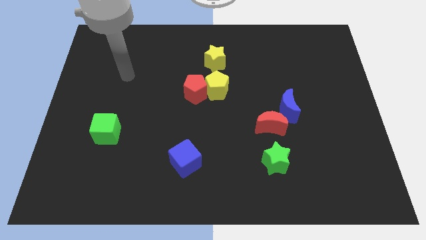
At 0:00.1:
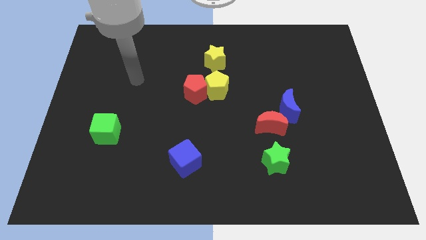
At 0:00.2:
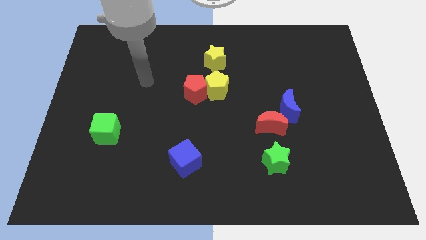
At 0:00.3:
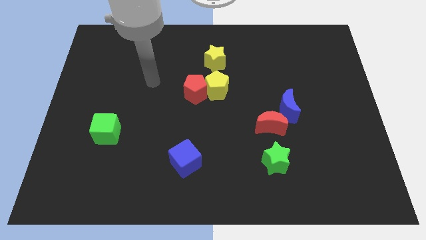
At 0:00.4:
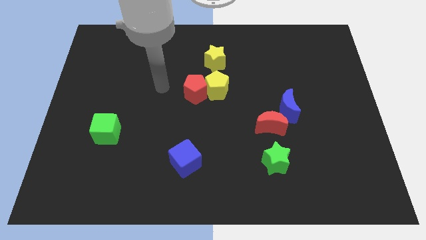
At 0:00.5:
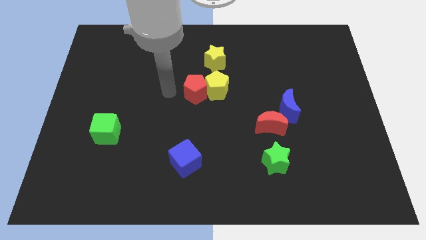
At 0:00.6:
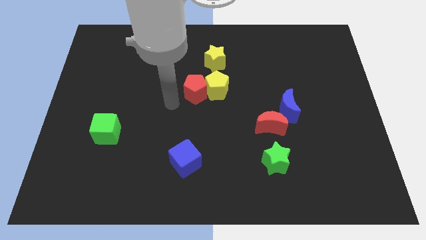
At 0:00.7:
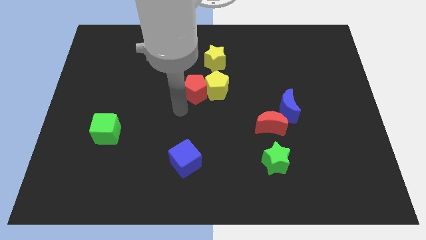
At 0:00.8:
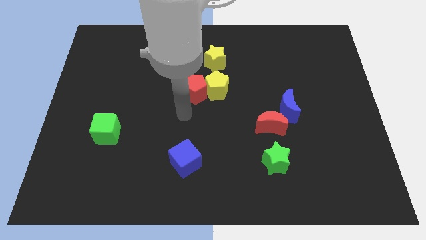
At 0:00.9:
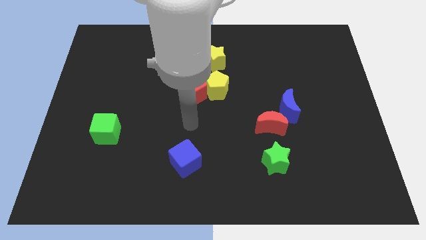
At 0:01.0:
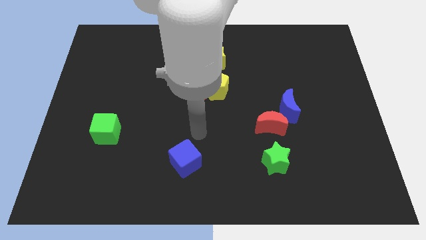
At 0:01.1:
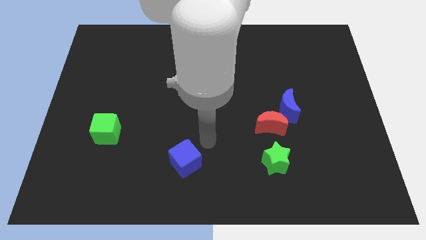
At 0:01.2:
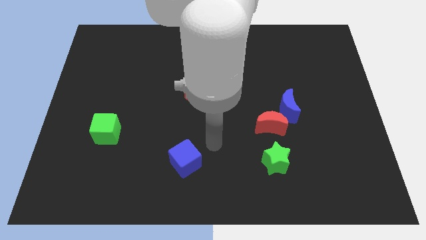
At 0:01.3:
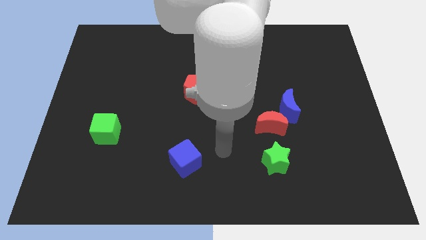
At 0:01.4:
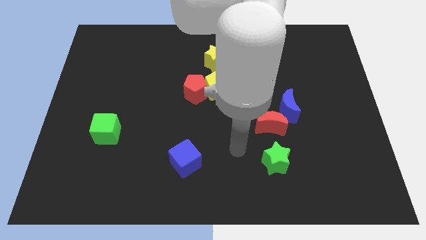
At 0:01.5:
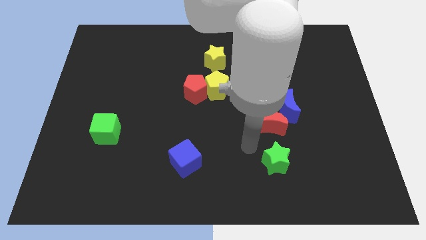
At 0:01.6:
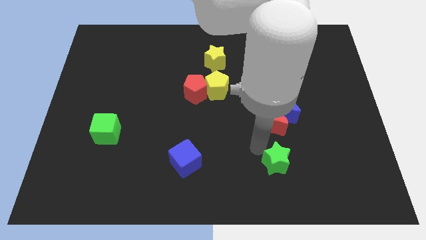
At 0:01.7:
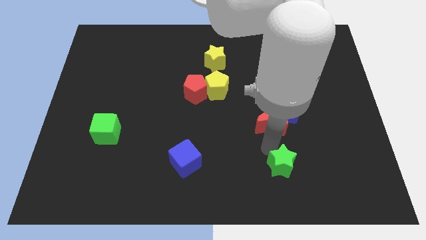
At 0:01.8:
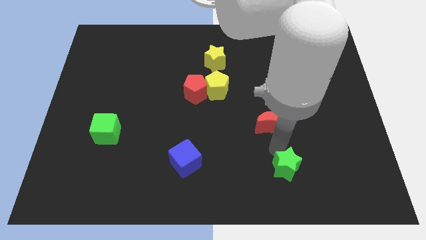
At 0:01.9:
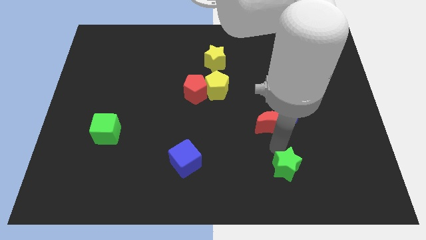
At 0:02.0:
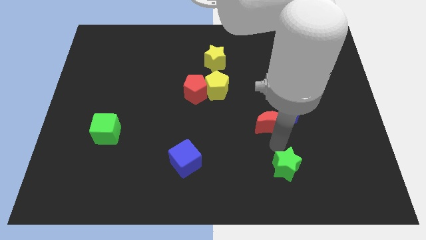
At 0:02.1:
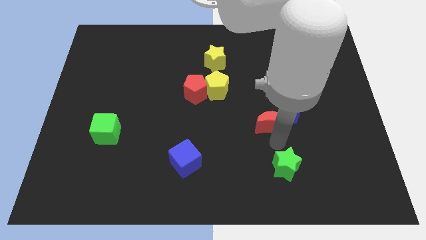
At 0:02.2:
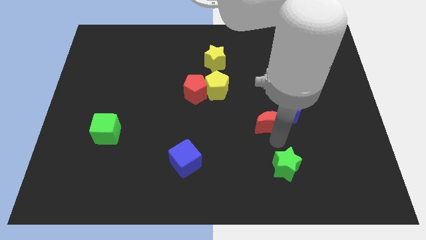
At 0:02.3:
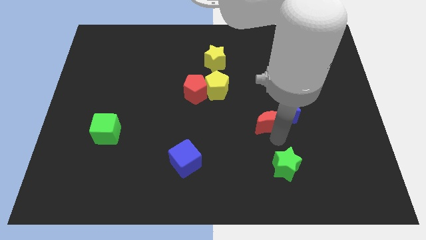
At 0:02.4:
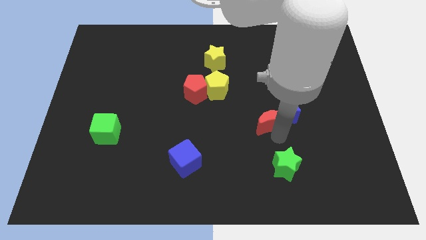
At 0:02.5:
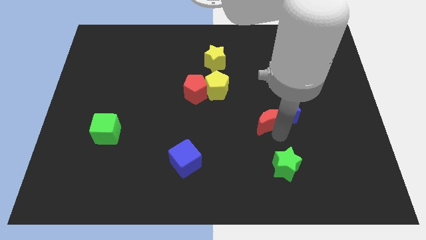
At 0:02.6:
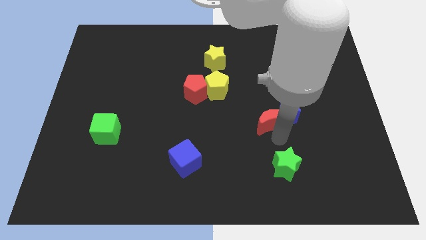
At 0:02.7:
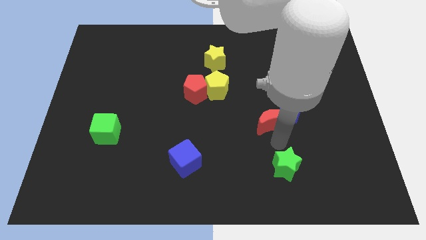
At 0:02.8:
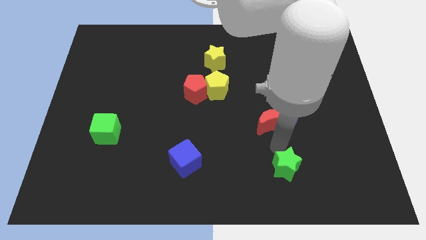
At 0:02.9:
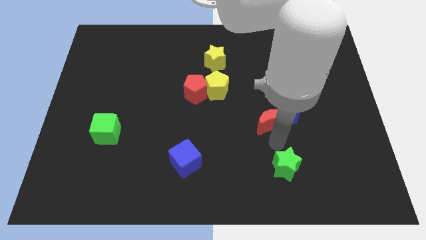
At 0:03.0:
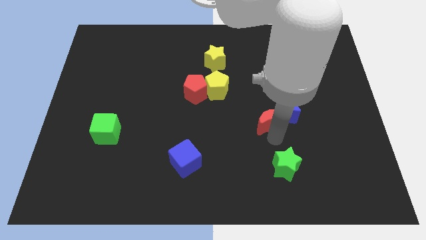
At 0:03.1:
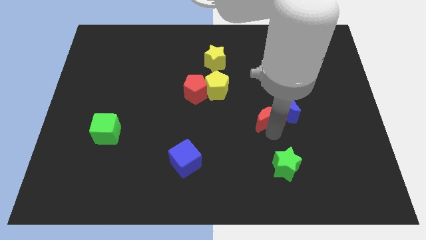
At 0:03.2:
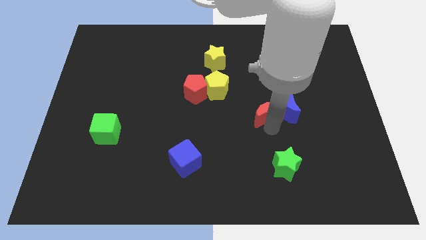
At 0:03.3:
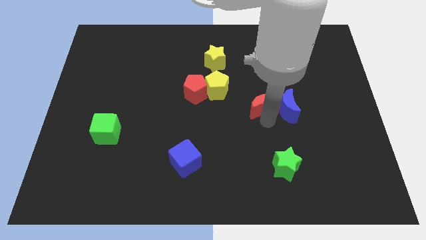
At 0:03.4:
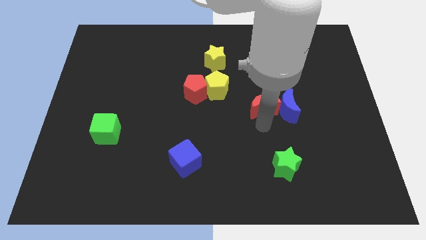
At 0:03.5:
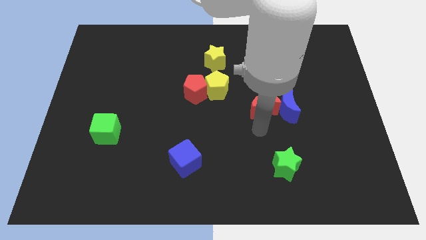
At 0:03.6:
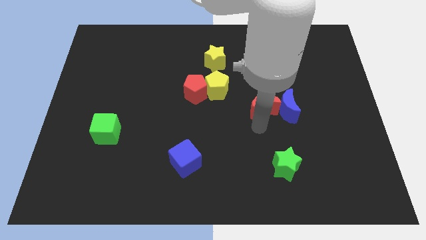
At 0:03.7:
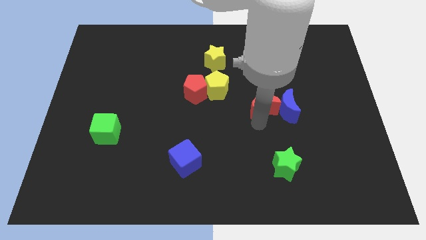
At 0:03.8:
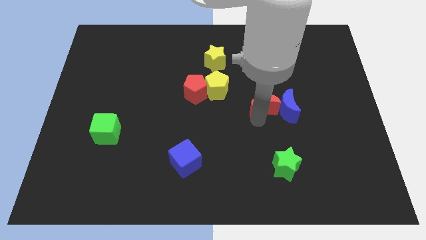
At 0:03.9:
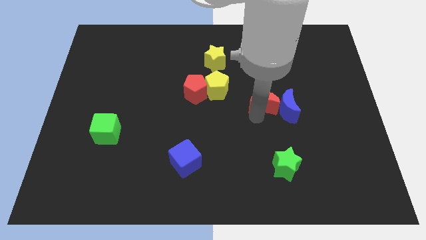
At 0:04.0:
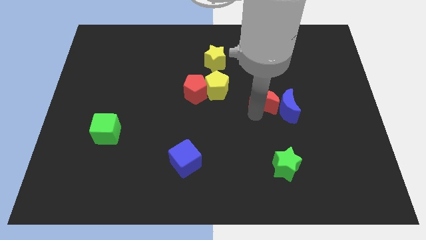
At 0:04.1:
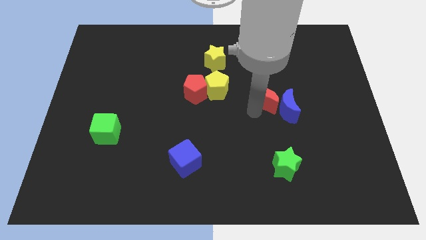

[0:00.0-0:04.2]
slide the red moon up a little

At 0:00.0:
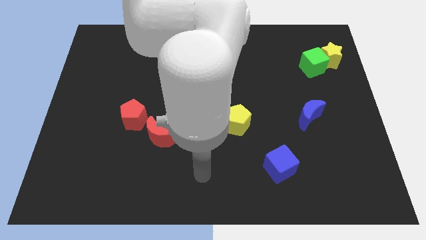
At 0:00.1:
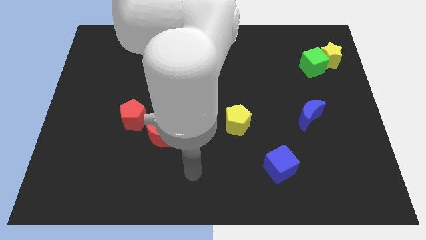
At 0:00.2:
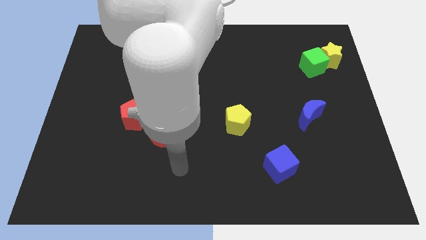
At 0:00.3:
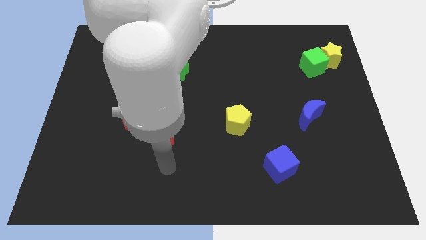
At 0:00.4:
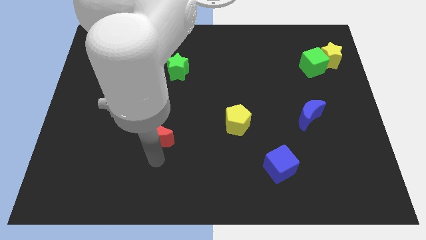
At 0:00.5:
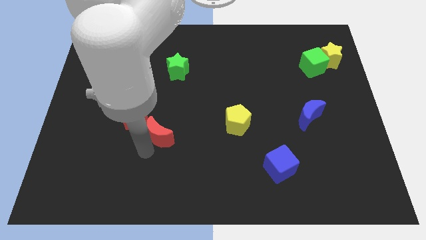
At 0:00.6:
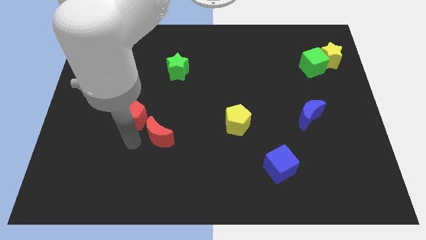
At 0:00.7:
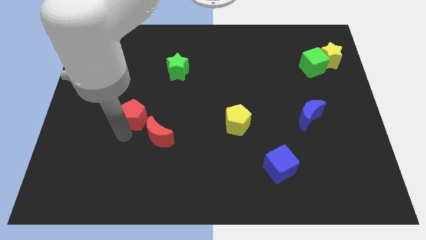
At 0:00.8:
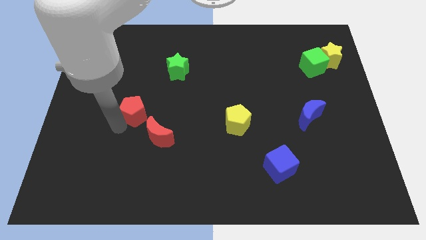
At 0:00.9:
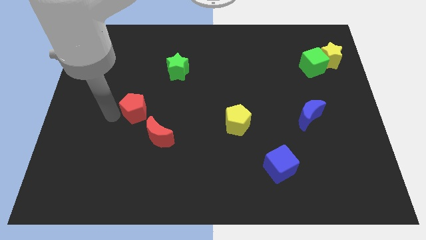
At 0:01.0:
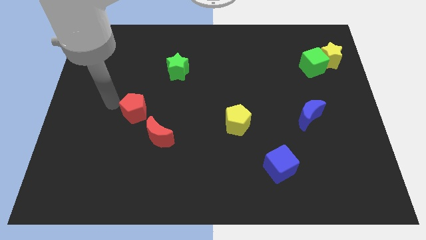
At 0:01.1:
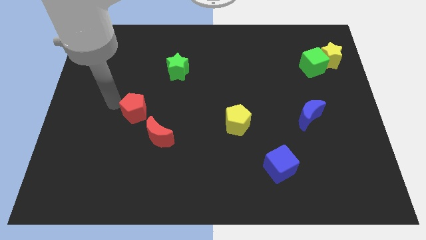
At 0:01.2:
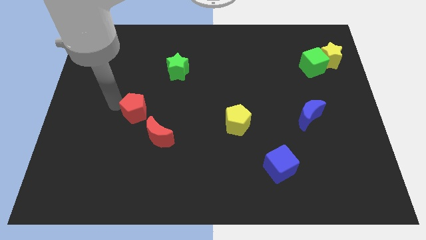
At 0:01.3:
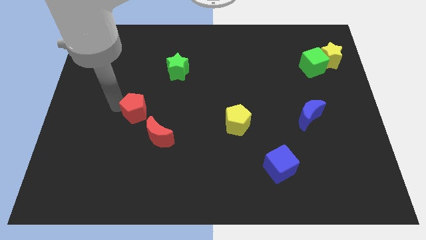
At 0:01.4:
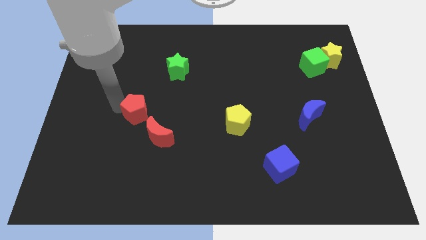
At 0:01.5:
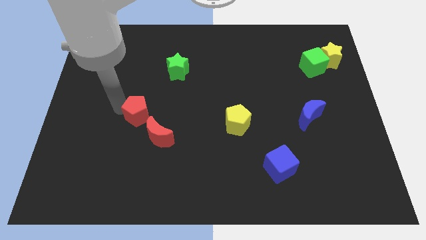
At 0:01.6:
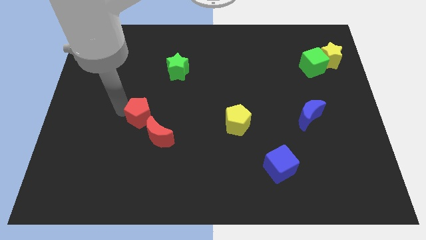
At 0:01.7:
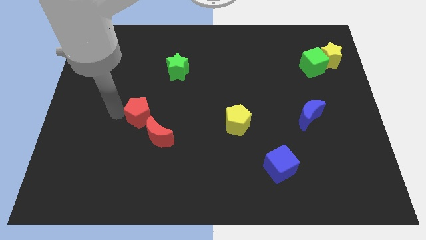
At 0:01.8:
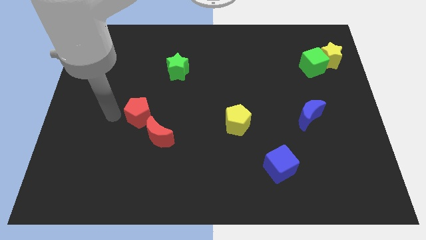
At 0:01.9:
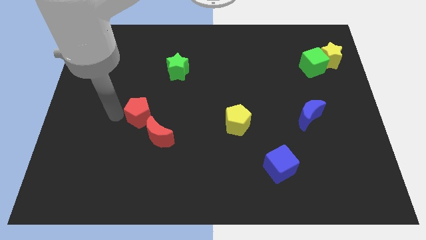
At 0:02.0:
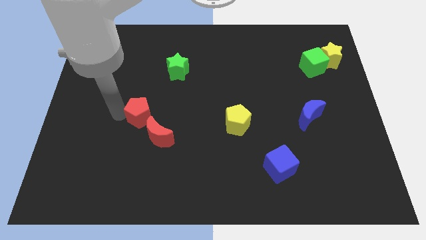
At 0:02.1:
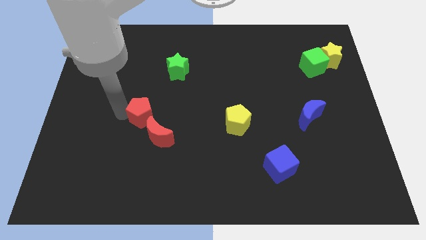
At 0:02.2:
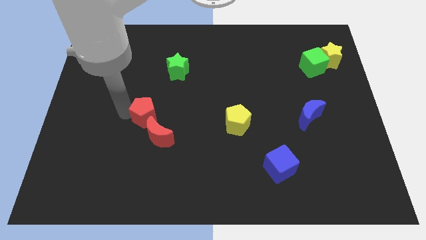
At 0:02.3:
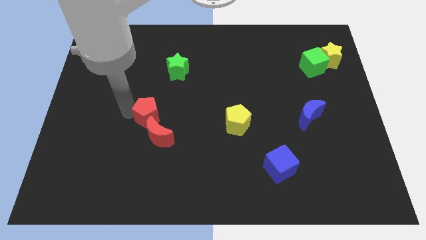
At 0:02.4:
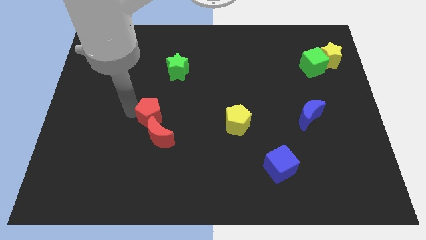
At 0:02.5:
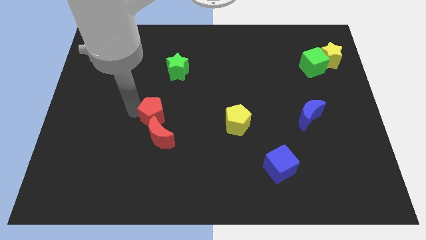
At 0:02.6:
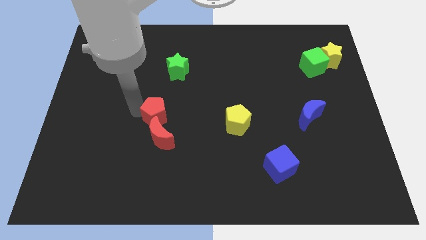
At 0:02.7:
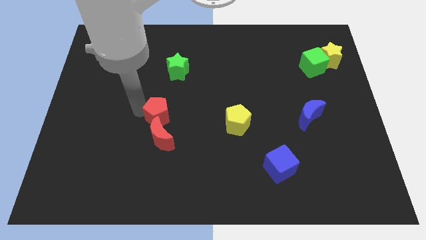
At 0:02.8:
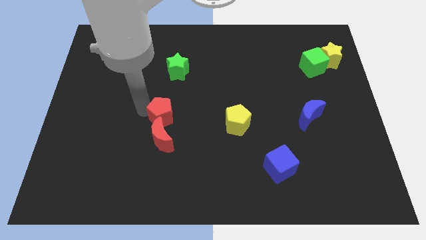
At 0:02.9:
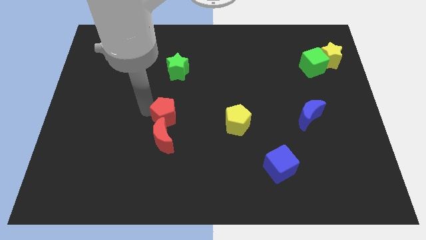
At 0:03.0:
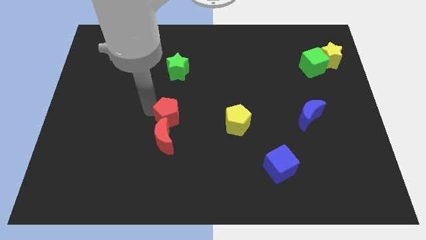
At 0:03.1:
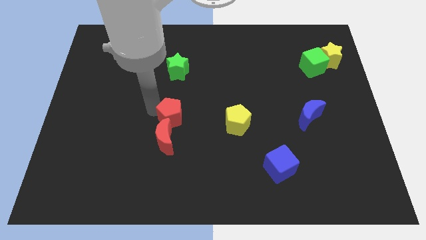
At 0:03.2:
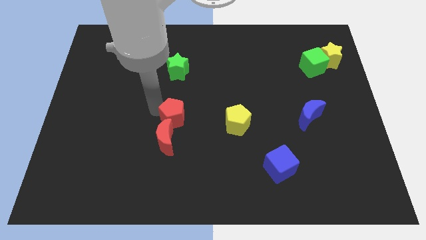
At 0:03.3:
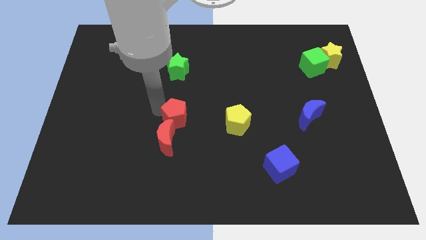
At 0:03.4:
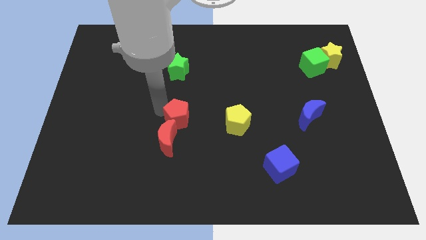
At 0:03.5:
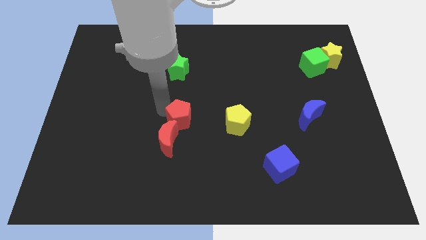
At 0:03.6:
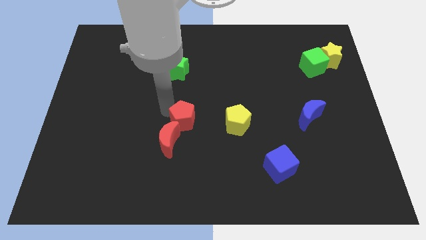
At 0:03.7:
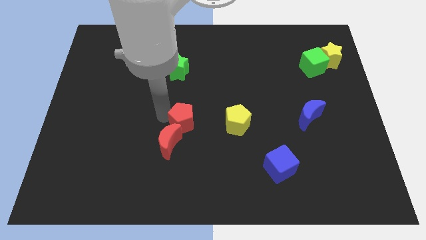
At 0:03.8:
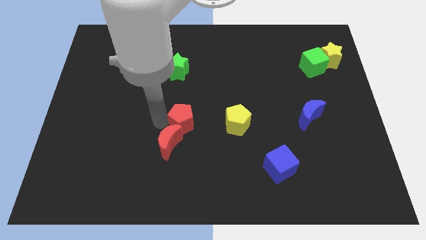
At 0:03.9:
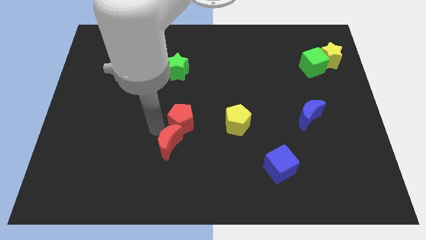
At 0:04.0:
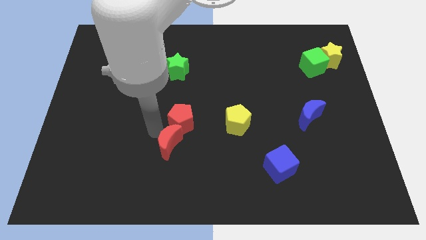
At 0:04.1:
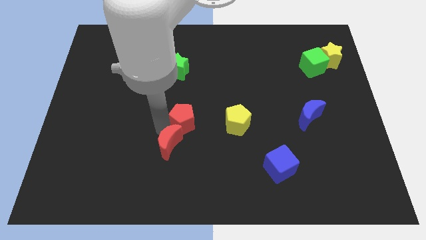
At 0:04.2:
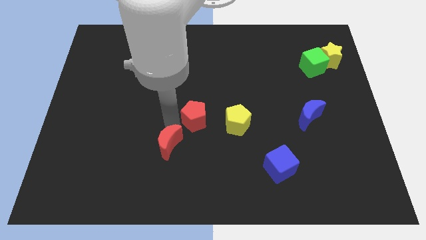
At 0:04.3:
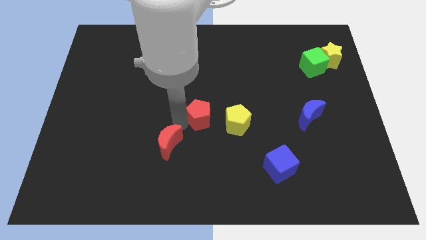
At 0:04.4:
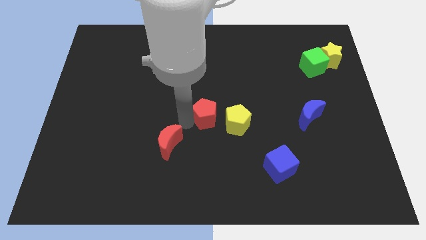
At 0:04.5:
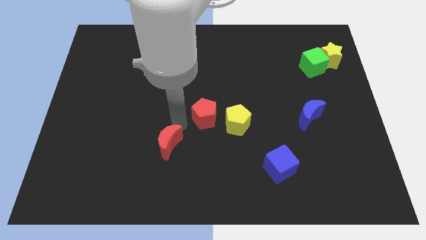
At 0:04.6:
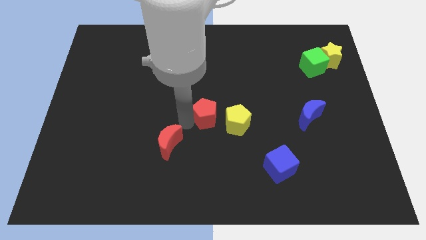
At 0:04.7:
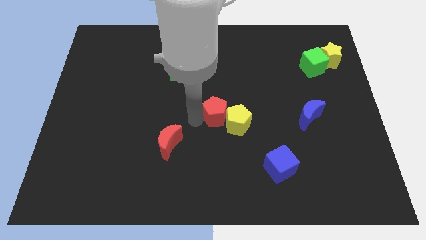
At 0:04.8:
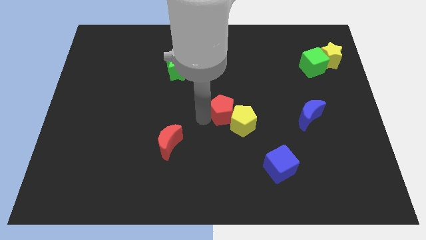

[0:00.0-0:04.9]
push the red pentagon to the right
